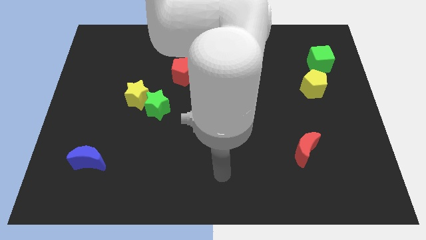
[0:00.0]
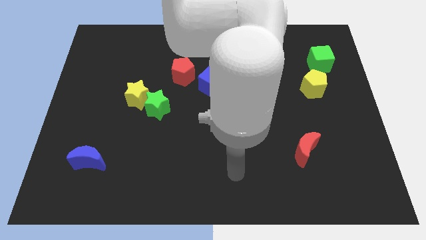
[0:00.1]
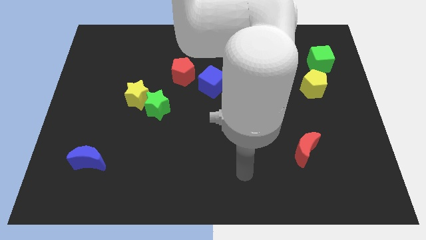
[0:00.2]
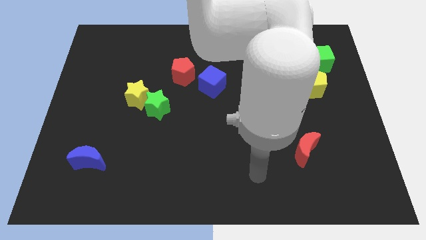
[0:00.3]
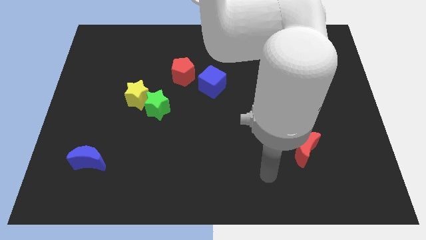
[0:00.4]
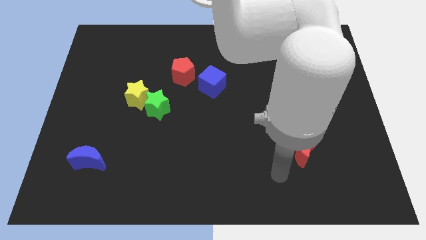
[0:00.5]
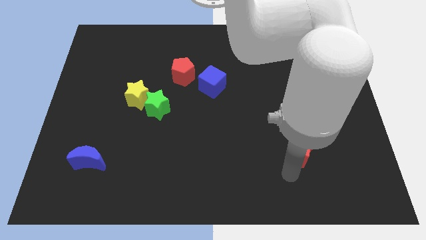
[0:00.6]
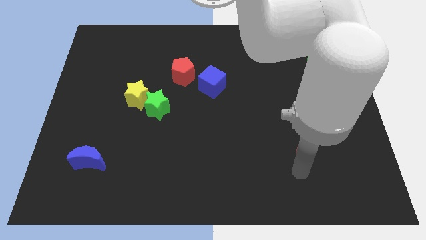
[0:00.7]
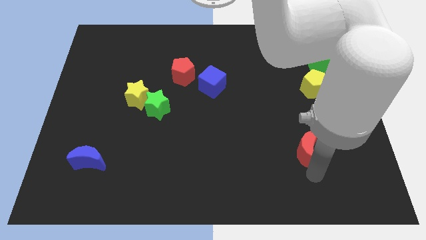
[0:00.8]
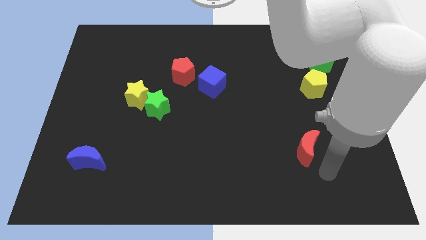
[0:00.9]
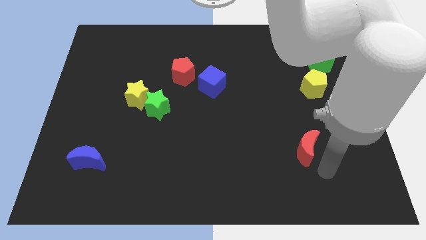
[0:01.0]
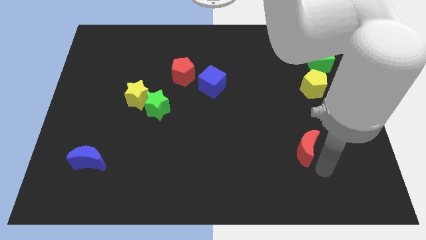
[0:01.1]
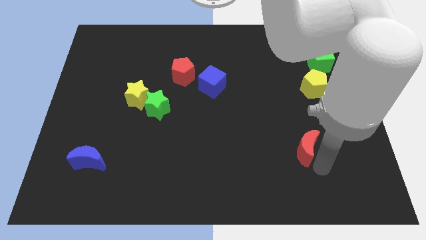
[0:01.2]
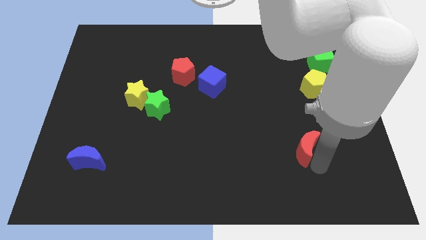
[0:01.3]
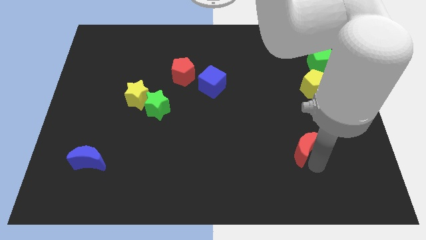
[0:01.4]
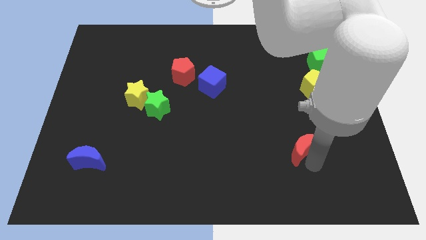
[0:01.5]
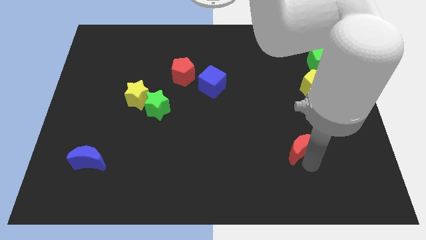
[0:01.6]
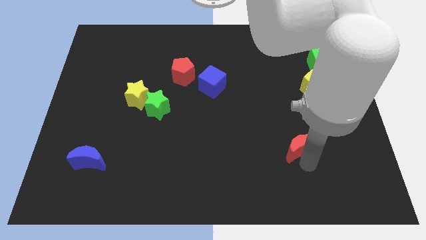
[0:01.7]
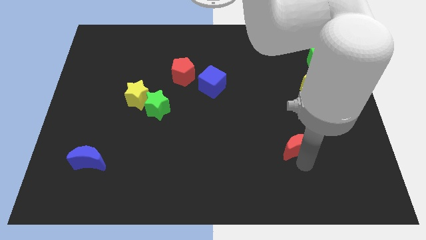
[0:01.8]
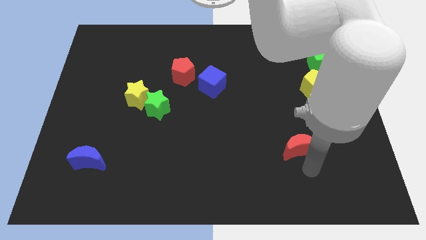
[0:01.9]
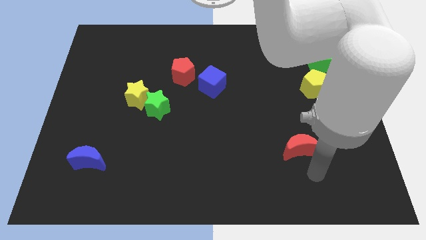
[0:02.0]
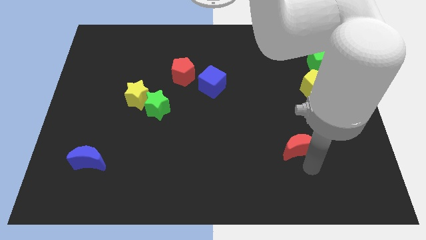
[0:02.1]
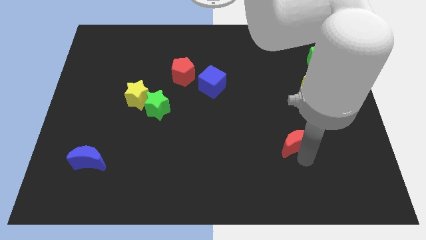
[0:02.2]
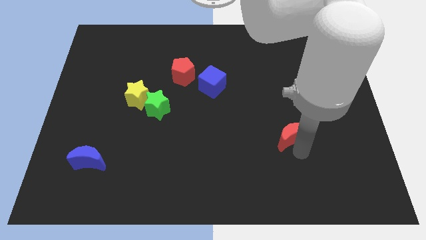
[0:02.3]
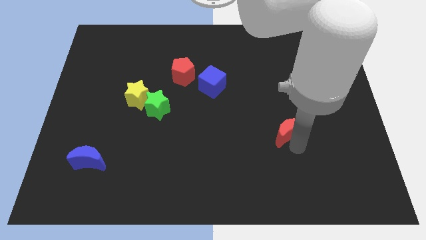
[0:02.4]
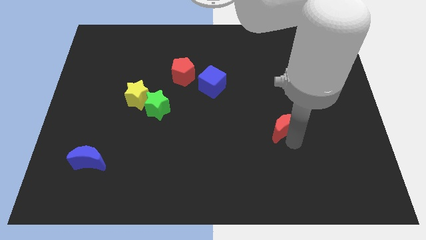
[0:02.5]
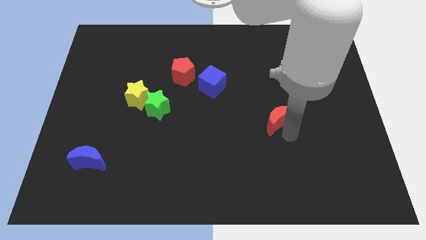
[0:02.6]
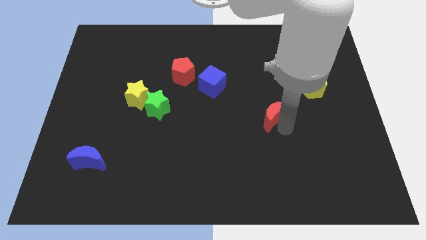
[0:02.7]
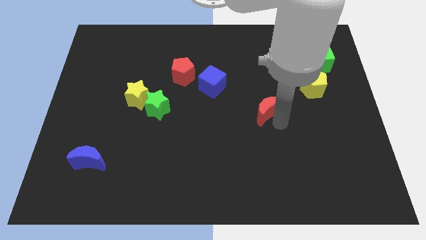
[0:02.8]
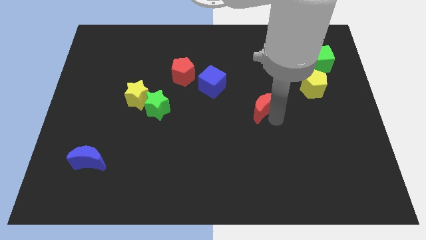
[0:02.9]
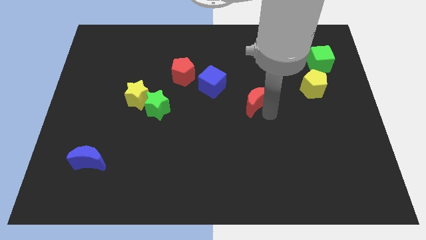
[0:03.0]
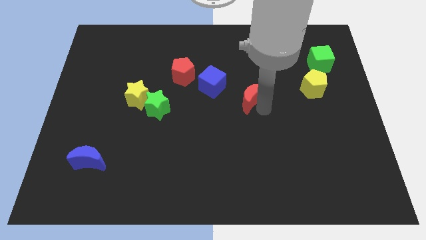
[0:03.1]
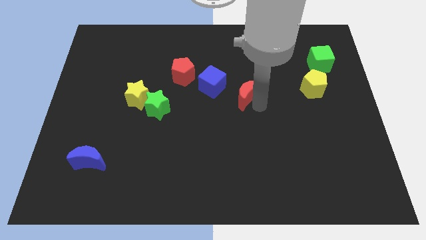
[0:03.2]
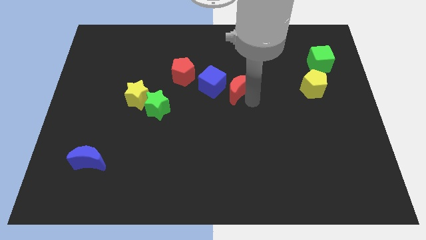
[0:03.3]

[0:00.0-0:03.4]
move the red moon upwards and to the left diagonally

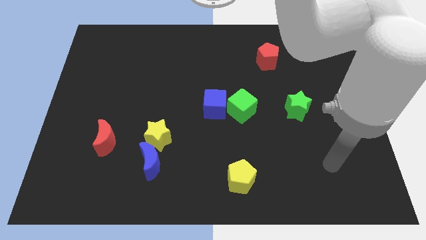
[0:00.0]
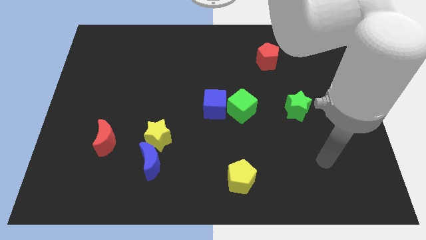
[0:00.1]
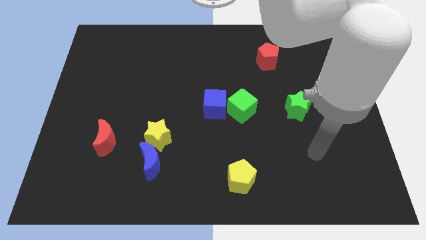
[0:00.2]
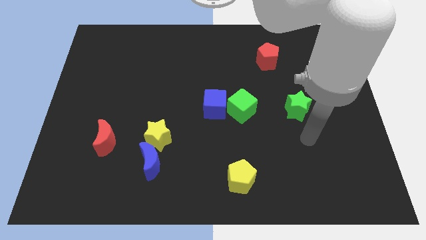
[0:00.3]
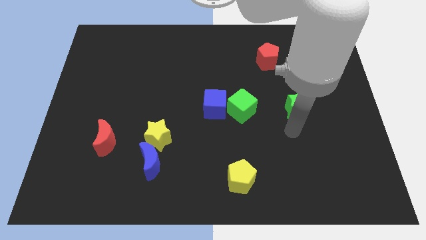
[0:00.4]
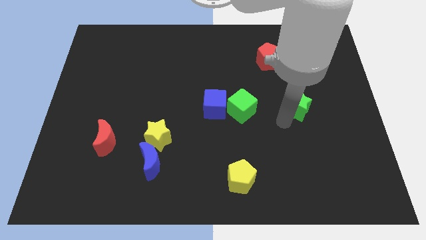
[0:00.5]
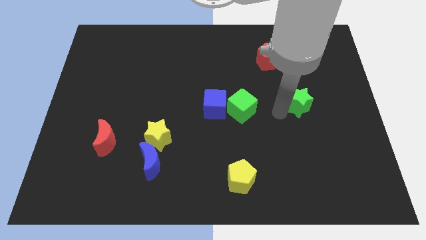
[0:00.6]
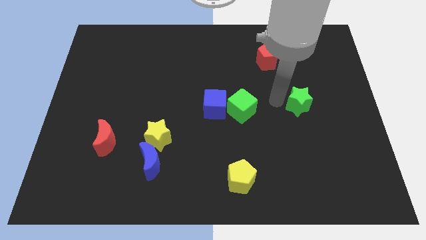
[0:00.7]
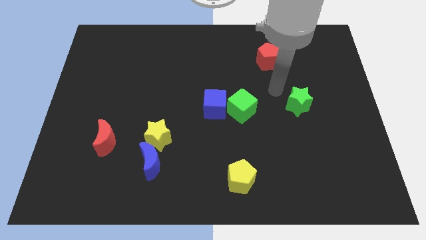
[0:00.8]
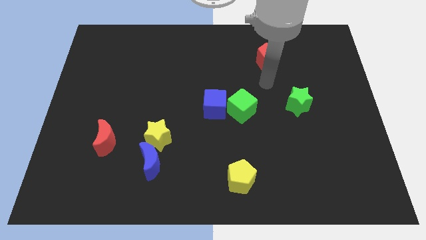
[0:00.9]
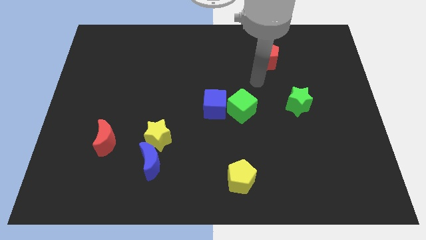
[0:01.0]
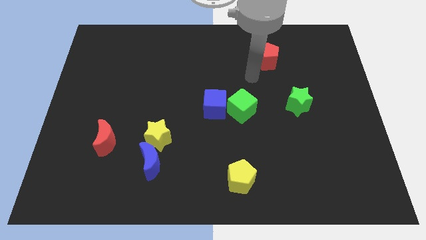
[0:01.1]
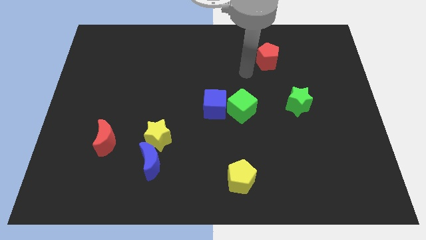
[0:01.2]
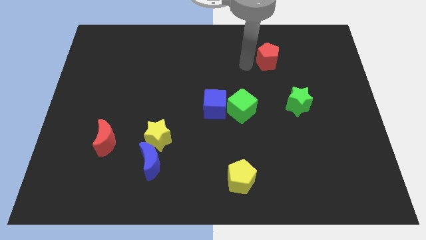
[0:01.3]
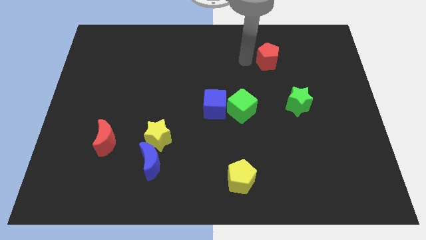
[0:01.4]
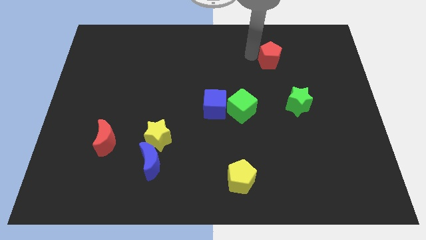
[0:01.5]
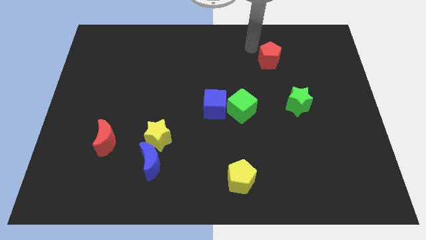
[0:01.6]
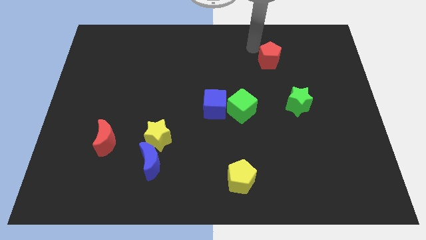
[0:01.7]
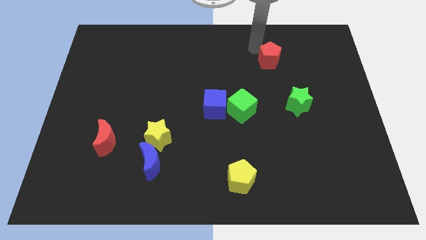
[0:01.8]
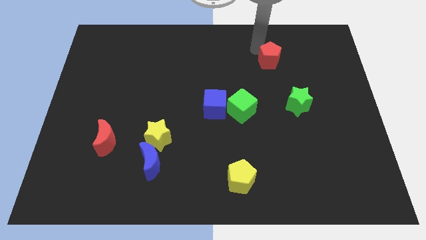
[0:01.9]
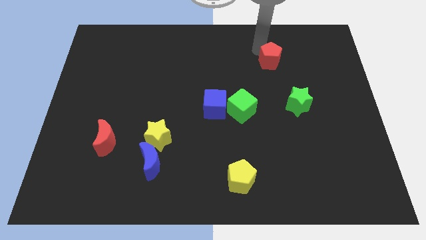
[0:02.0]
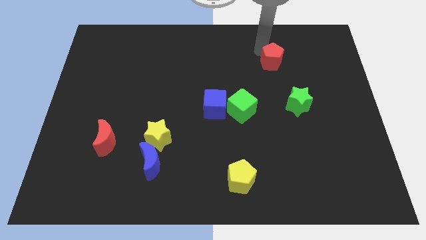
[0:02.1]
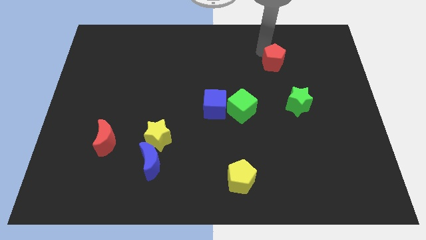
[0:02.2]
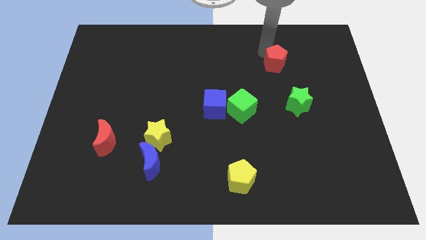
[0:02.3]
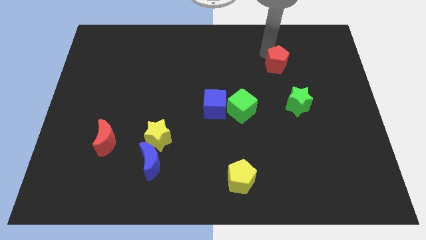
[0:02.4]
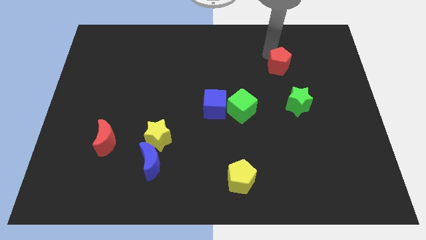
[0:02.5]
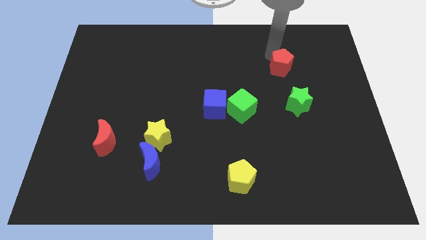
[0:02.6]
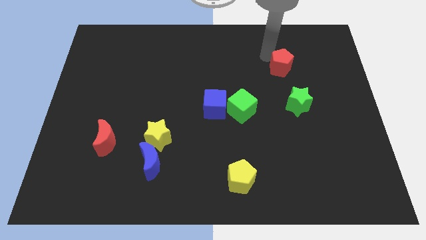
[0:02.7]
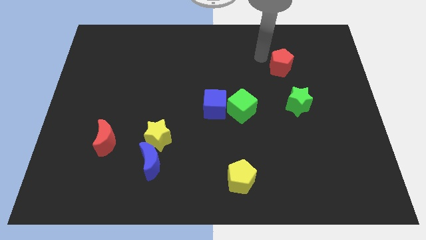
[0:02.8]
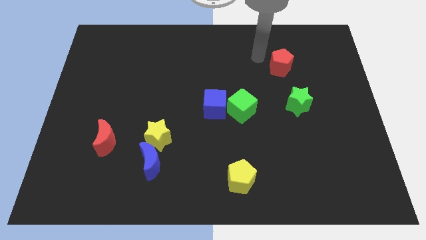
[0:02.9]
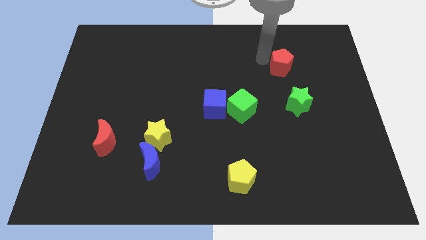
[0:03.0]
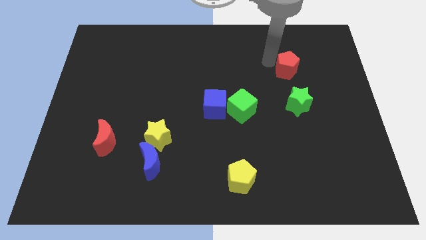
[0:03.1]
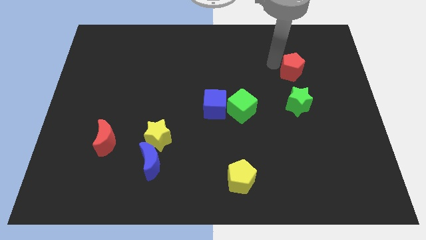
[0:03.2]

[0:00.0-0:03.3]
move the red pentagon a little bit down and to the right diagonally

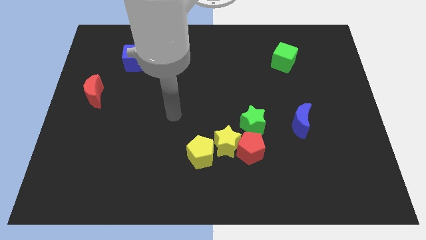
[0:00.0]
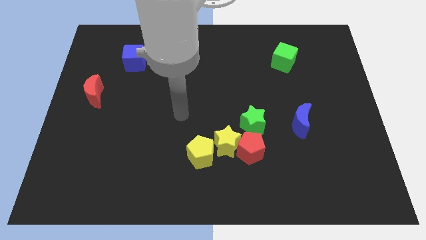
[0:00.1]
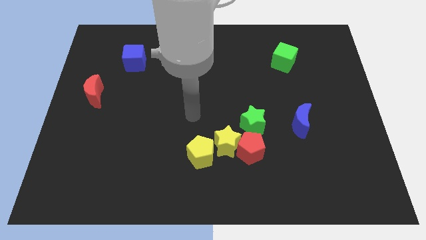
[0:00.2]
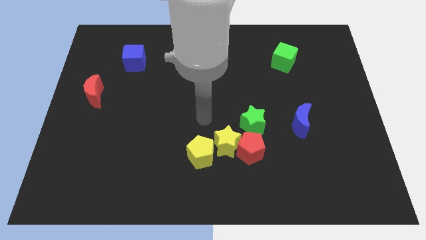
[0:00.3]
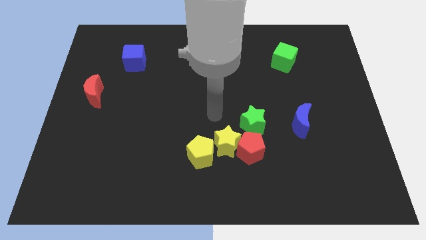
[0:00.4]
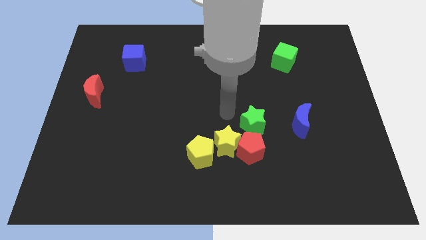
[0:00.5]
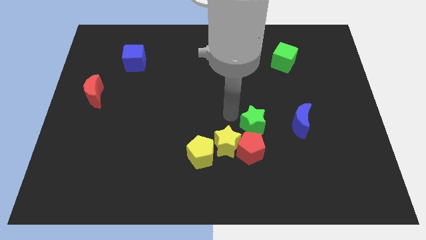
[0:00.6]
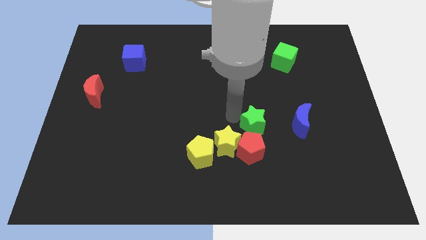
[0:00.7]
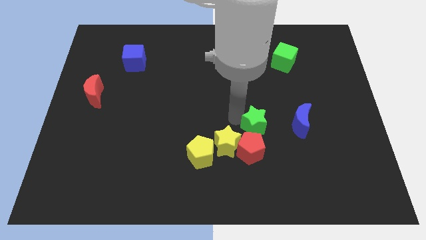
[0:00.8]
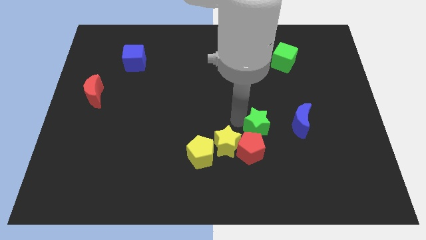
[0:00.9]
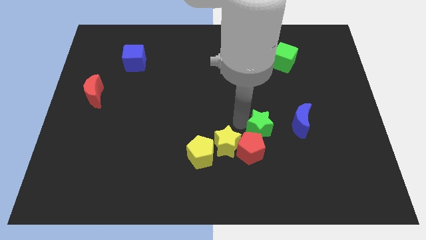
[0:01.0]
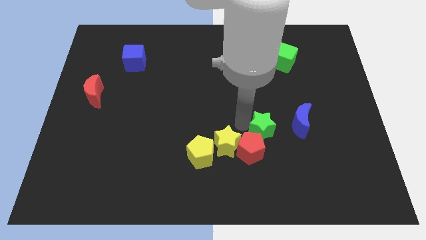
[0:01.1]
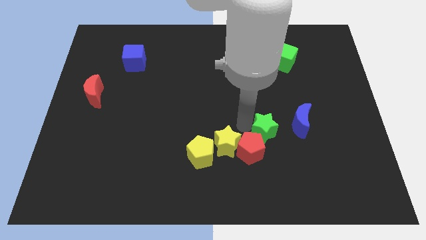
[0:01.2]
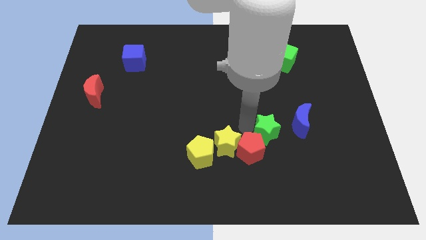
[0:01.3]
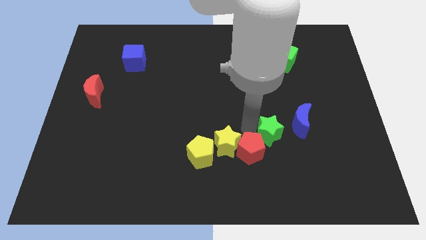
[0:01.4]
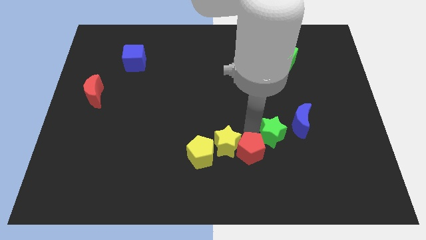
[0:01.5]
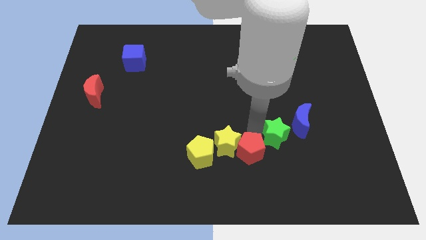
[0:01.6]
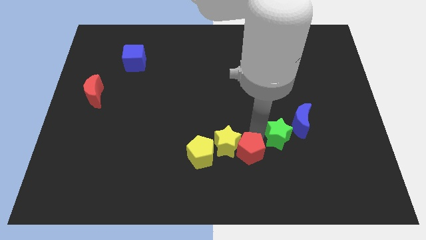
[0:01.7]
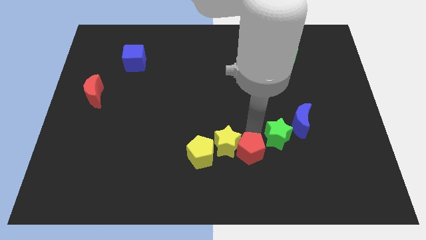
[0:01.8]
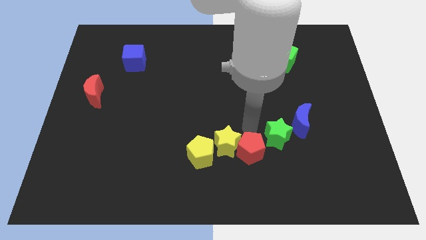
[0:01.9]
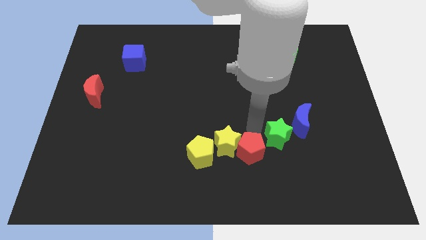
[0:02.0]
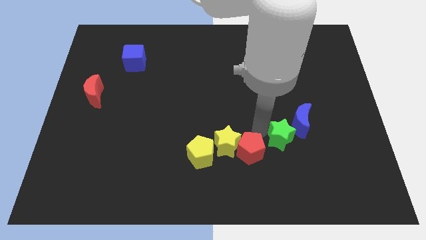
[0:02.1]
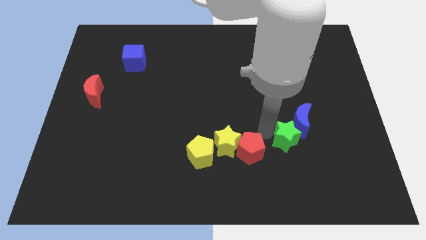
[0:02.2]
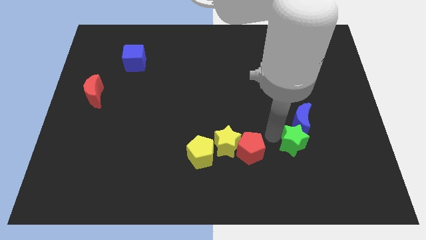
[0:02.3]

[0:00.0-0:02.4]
push the green star somewhat to the right
